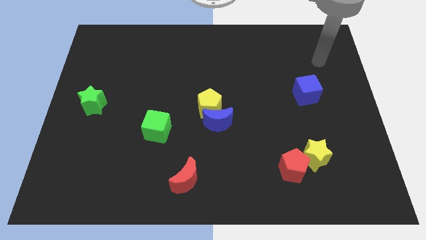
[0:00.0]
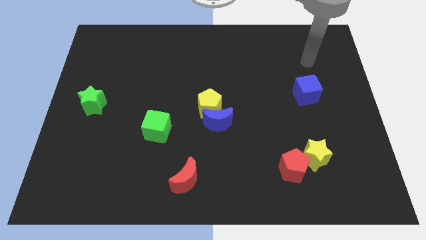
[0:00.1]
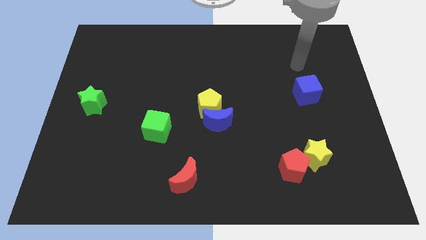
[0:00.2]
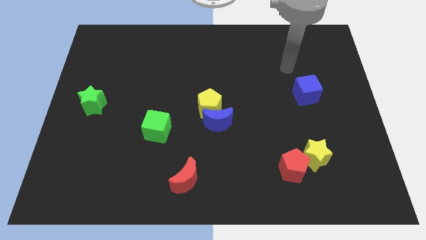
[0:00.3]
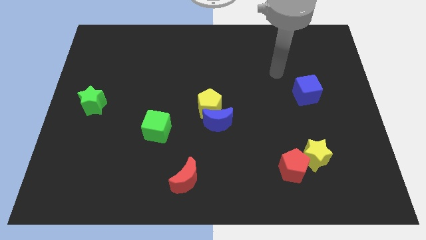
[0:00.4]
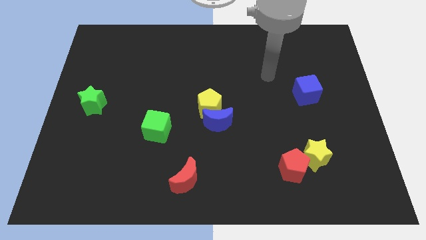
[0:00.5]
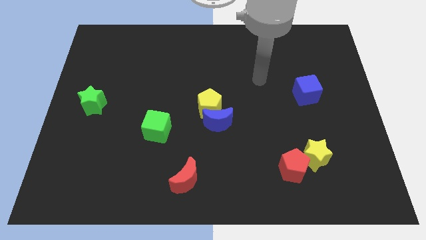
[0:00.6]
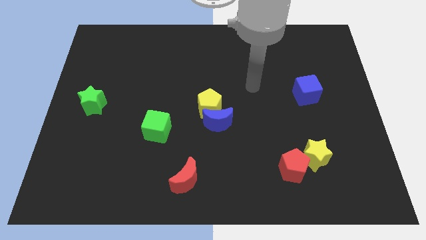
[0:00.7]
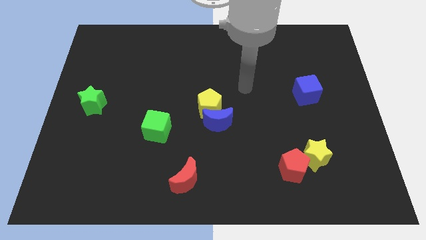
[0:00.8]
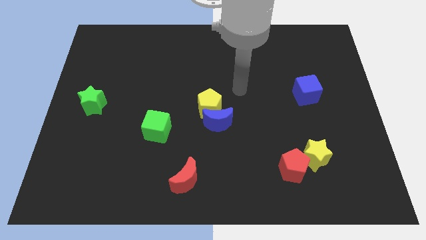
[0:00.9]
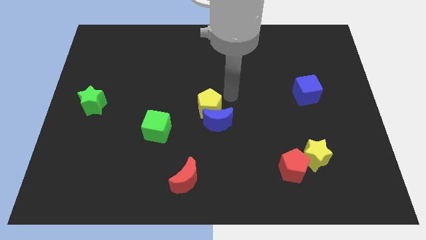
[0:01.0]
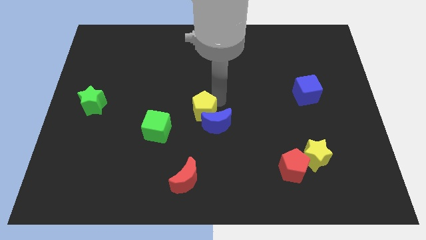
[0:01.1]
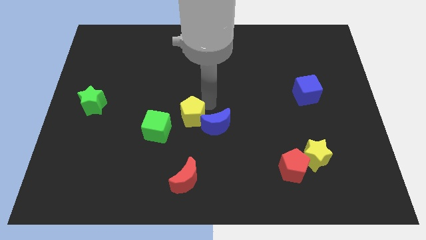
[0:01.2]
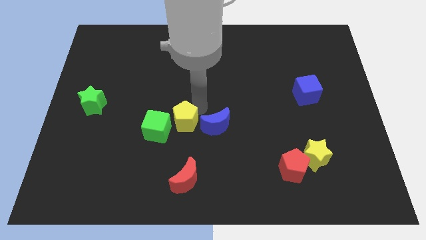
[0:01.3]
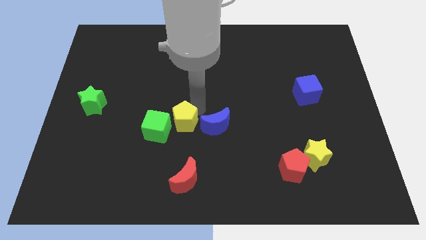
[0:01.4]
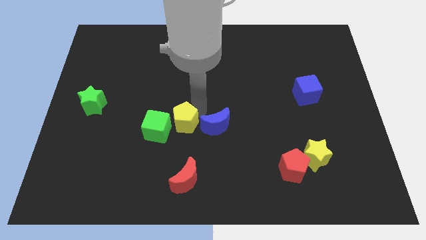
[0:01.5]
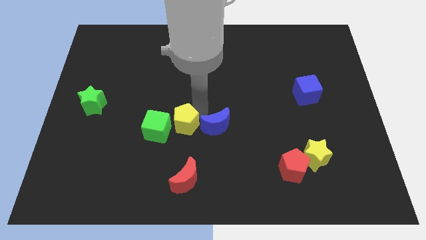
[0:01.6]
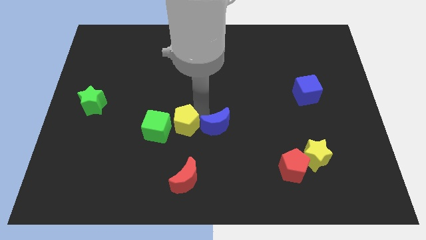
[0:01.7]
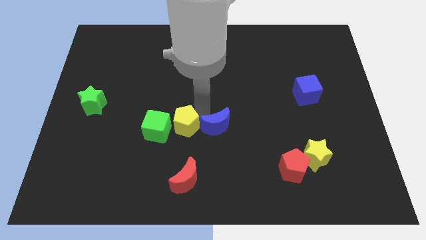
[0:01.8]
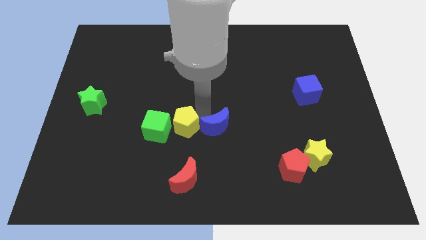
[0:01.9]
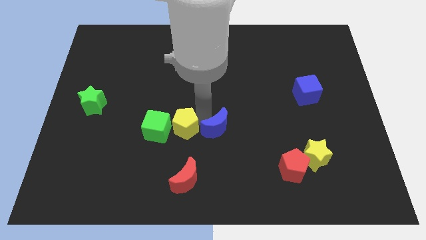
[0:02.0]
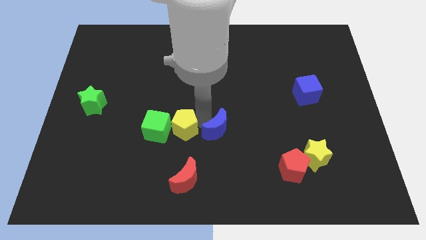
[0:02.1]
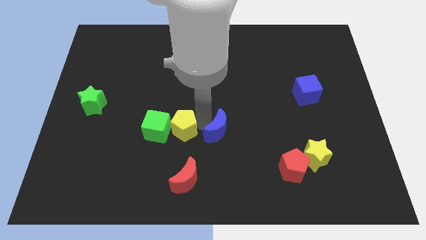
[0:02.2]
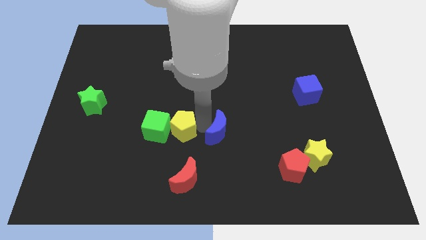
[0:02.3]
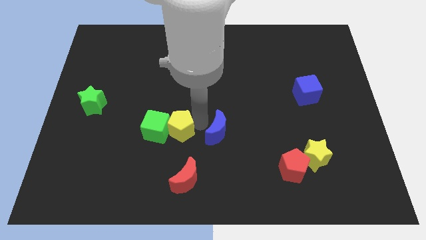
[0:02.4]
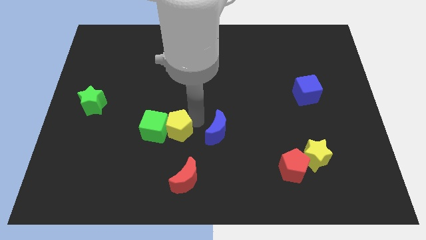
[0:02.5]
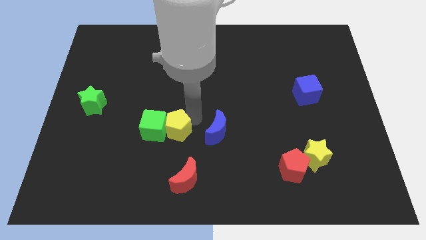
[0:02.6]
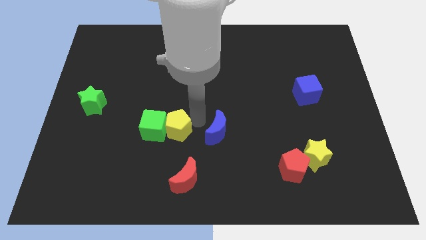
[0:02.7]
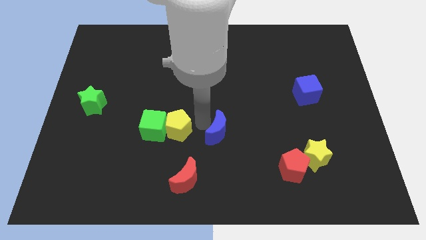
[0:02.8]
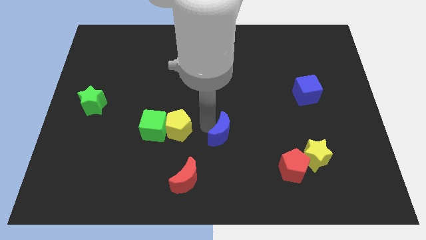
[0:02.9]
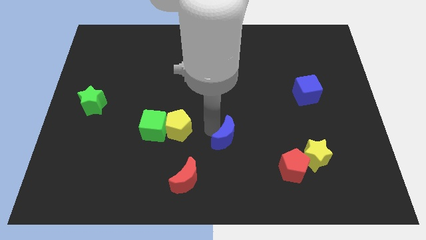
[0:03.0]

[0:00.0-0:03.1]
pull the blue moon apart from the yellow pentagon

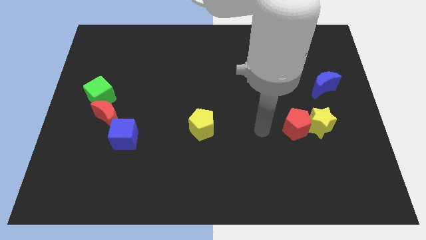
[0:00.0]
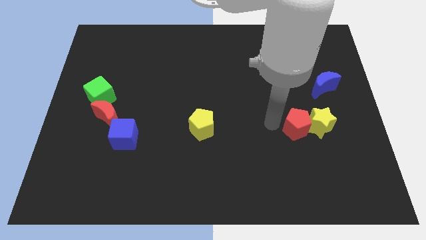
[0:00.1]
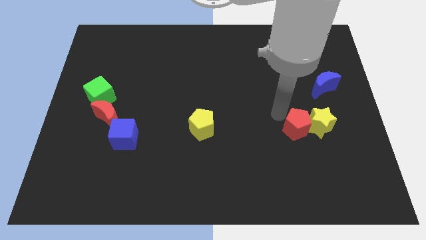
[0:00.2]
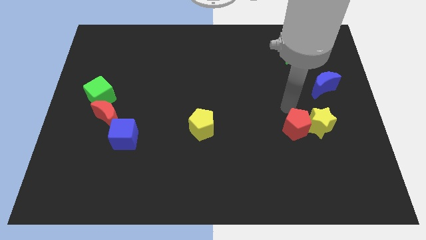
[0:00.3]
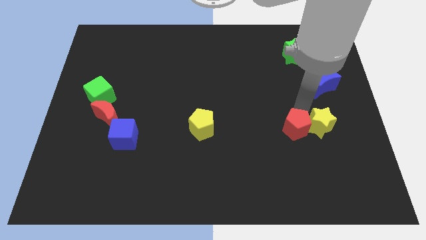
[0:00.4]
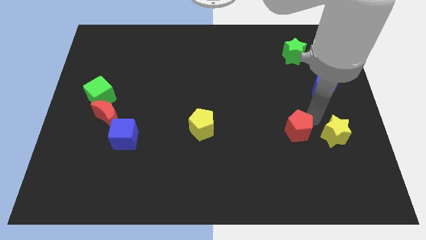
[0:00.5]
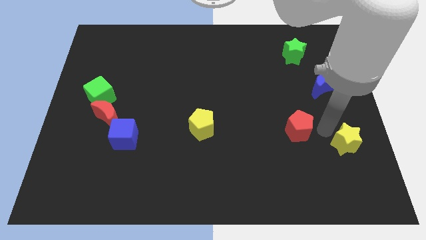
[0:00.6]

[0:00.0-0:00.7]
pull the red pentagon apart from the yellow star

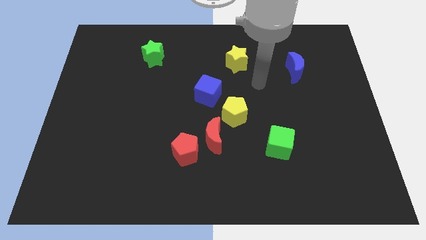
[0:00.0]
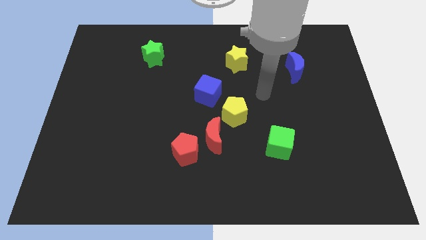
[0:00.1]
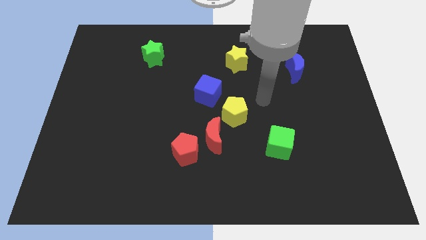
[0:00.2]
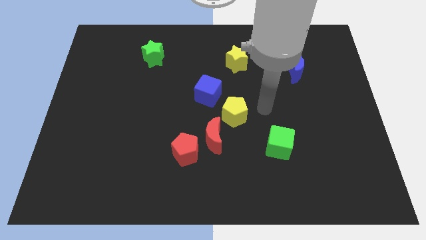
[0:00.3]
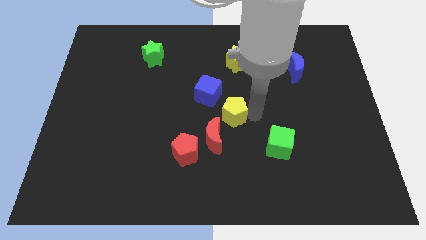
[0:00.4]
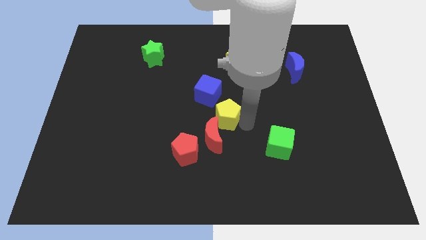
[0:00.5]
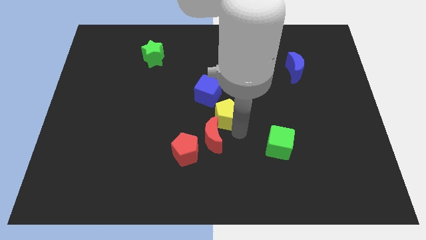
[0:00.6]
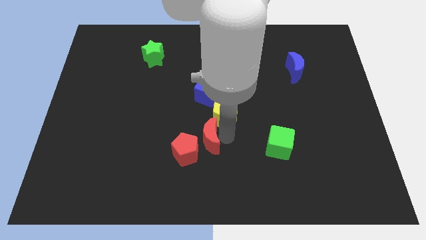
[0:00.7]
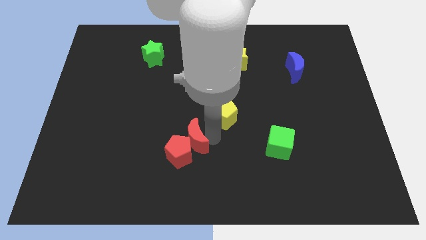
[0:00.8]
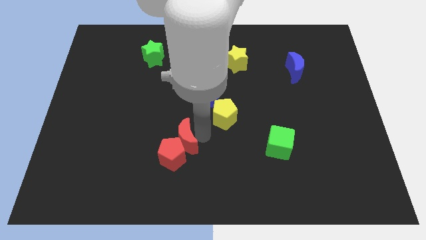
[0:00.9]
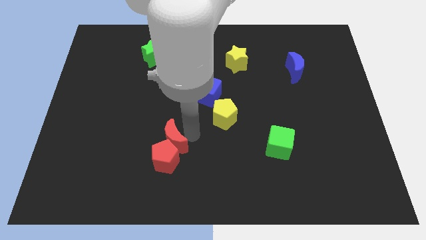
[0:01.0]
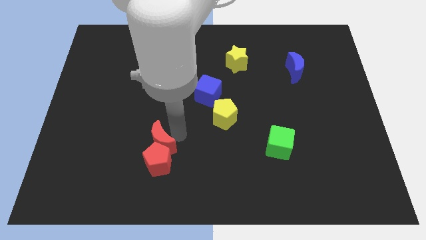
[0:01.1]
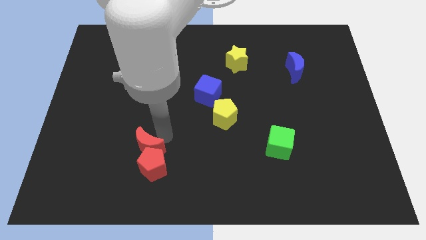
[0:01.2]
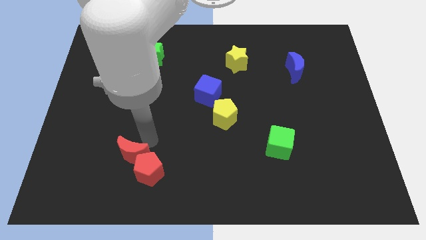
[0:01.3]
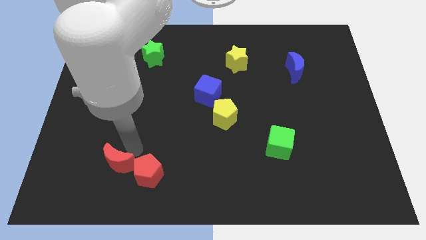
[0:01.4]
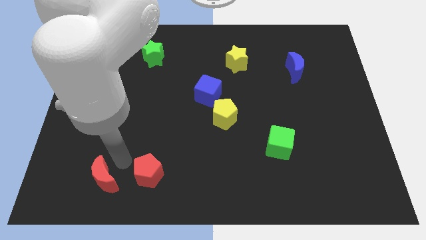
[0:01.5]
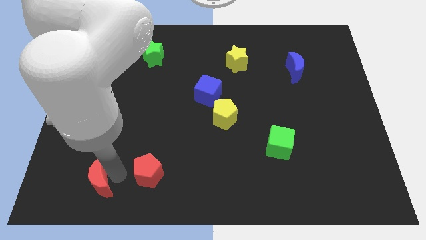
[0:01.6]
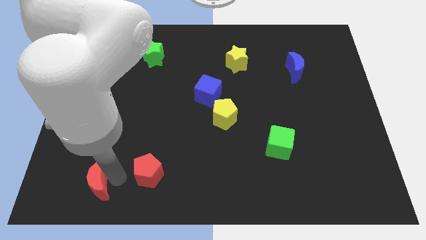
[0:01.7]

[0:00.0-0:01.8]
separate the red pentagon from the red moon

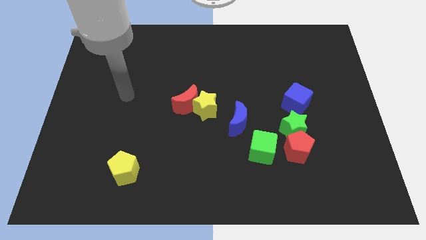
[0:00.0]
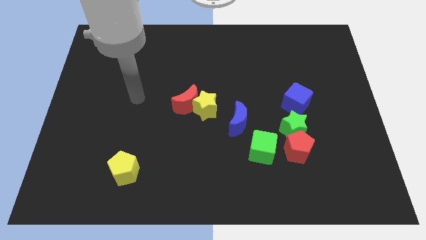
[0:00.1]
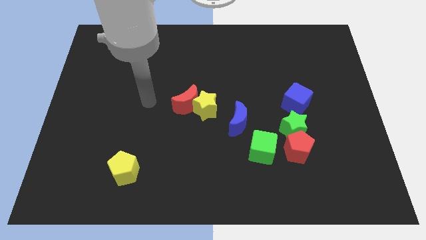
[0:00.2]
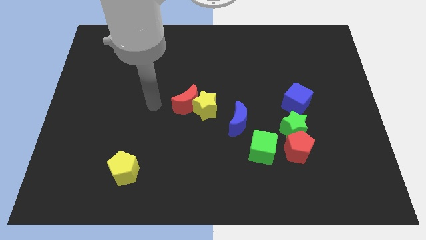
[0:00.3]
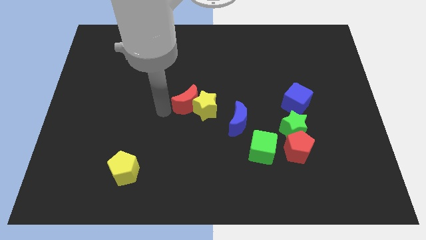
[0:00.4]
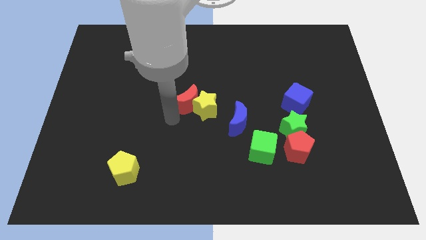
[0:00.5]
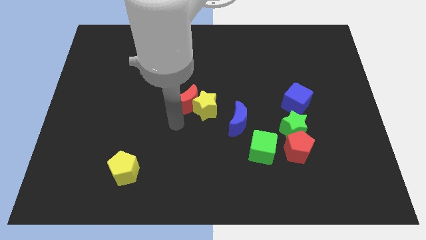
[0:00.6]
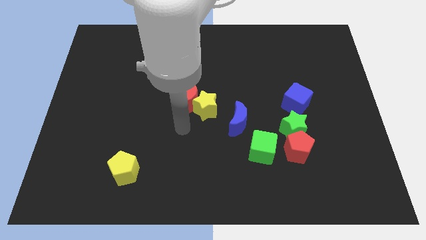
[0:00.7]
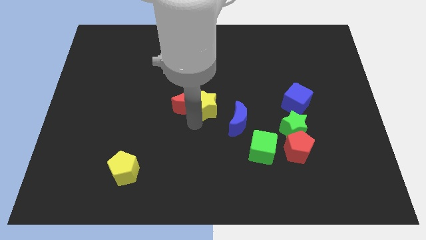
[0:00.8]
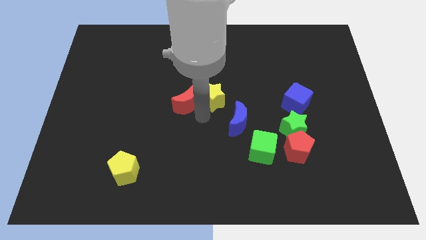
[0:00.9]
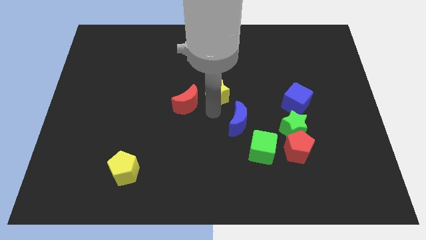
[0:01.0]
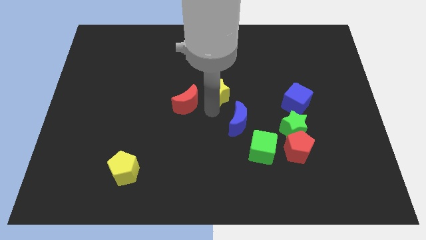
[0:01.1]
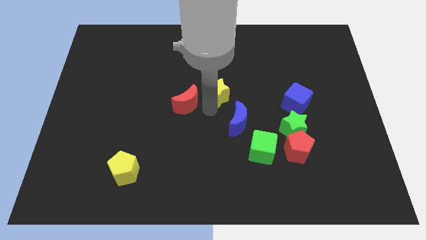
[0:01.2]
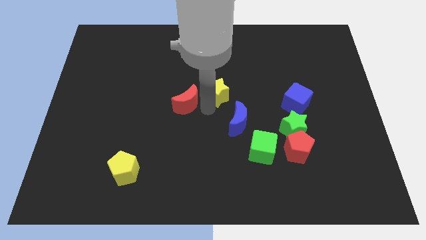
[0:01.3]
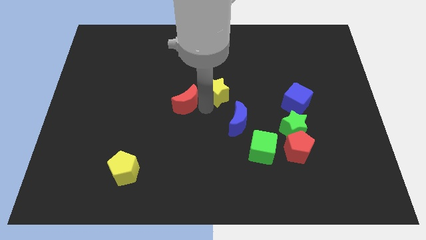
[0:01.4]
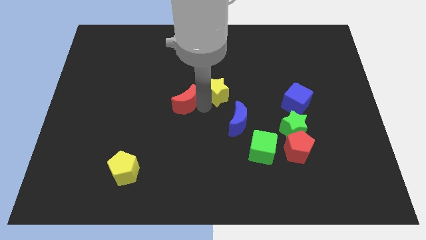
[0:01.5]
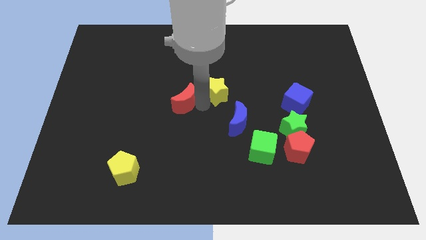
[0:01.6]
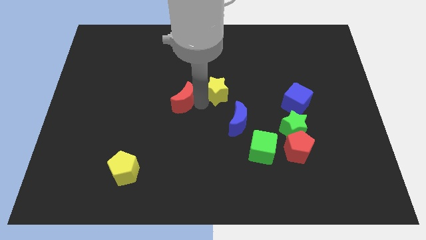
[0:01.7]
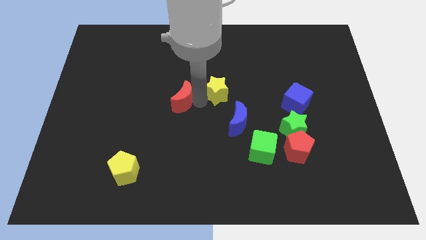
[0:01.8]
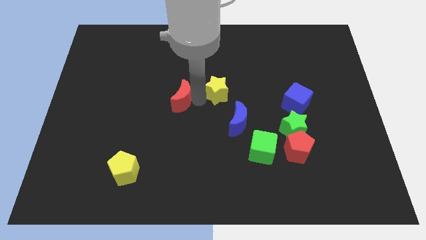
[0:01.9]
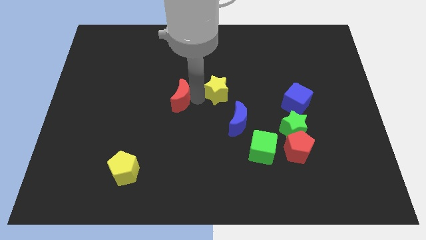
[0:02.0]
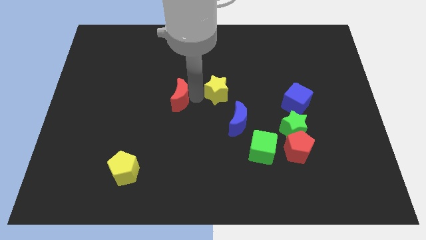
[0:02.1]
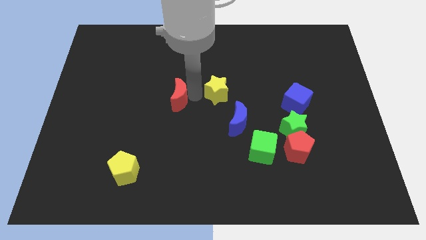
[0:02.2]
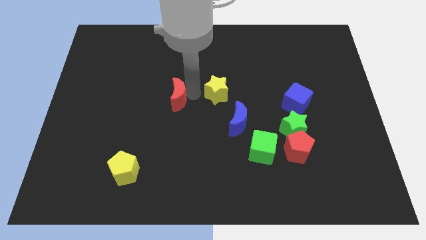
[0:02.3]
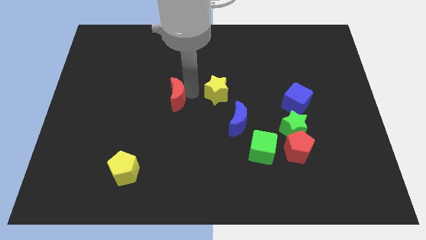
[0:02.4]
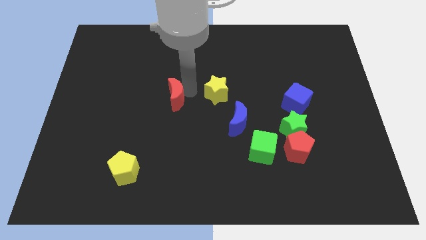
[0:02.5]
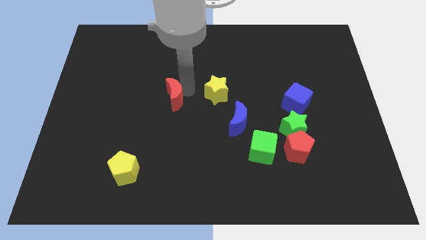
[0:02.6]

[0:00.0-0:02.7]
pull the red moon apart from the yellow star

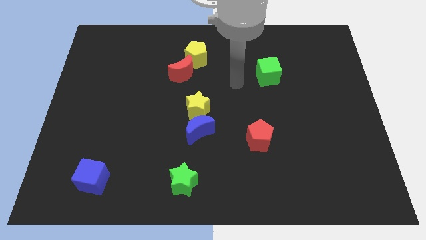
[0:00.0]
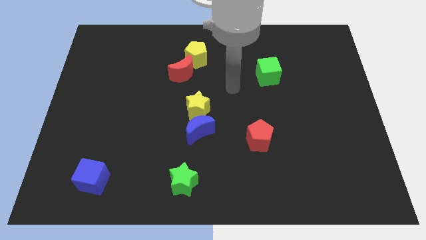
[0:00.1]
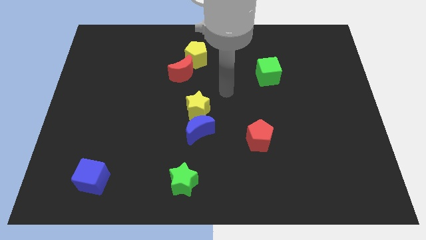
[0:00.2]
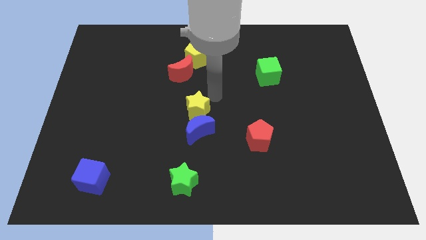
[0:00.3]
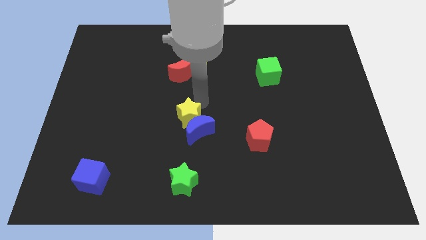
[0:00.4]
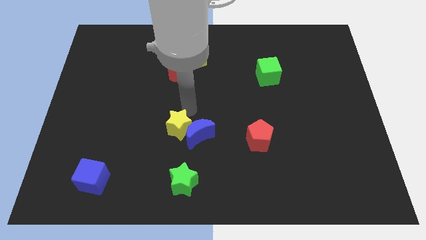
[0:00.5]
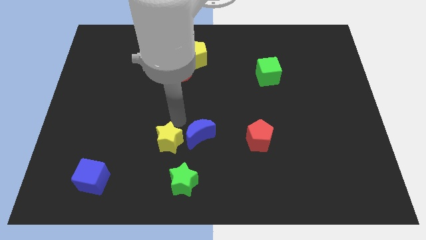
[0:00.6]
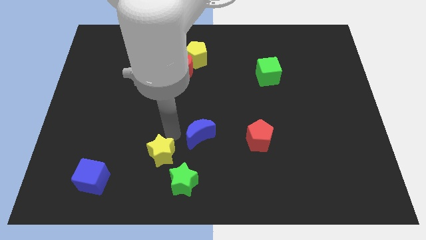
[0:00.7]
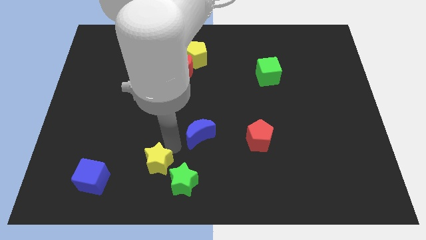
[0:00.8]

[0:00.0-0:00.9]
separate the blue moon from the yellow star

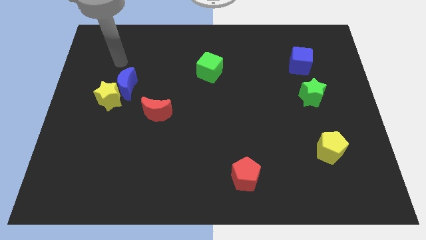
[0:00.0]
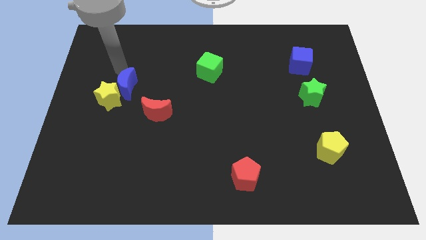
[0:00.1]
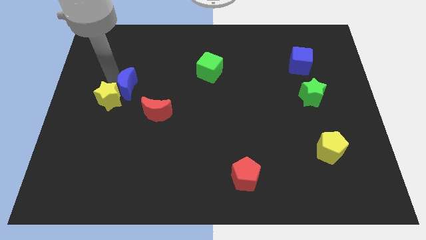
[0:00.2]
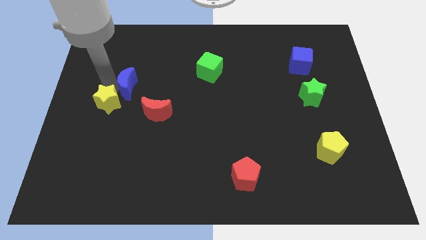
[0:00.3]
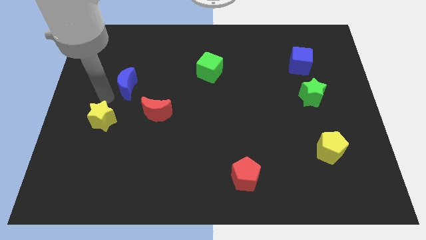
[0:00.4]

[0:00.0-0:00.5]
pull the blue moon apart from the yellow star
